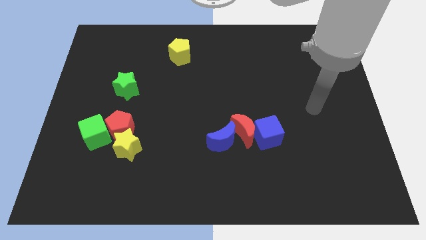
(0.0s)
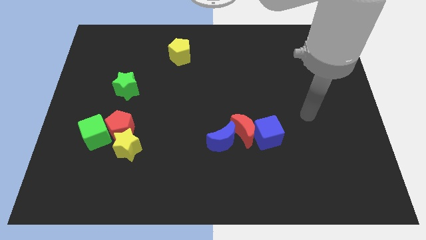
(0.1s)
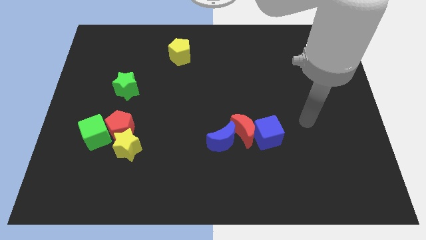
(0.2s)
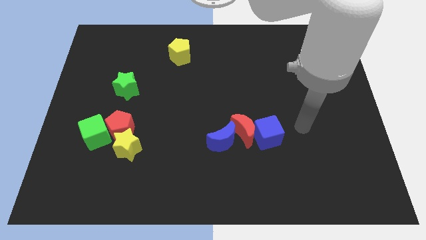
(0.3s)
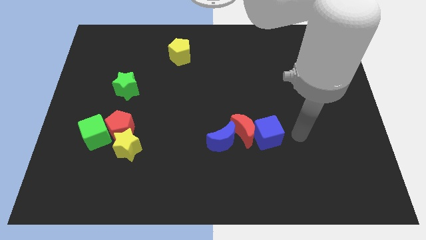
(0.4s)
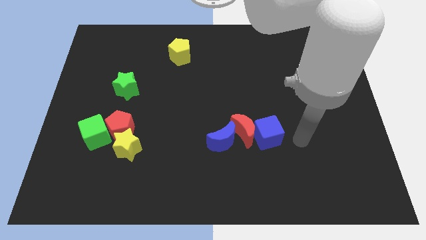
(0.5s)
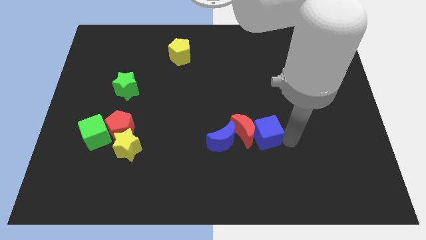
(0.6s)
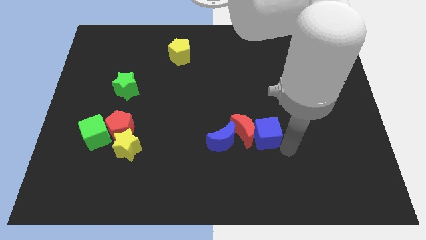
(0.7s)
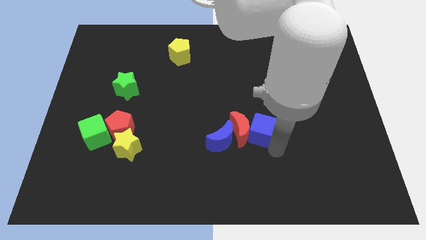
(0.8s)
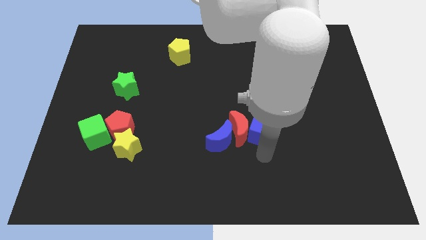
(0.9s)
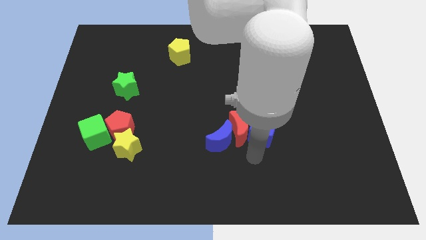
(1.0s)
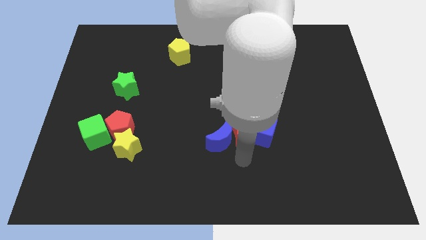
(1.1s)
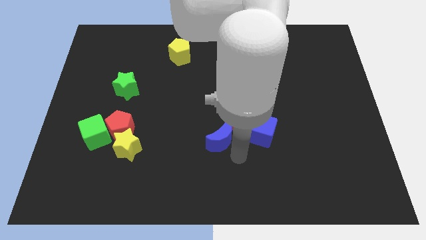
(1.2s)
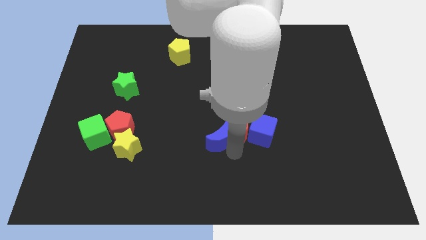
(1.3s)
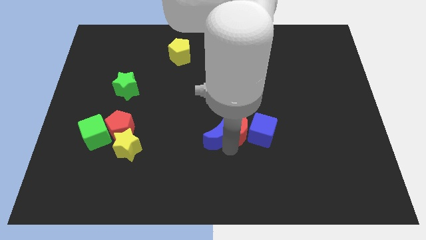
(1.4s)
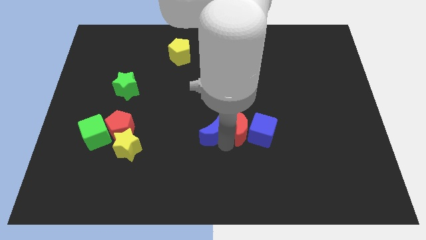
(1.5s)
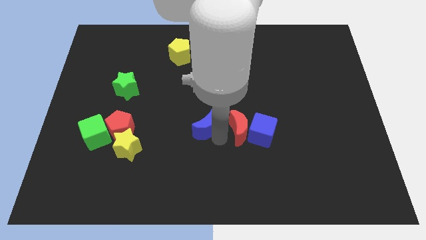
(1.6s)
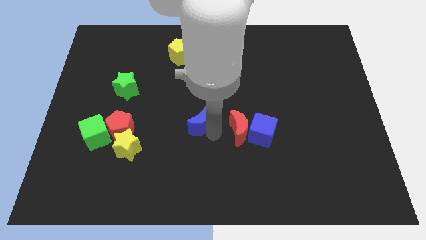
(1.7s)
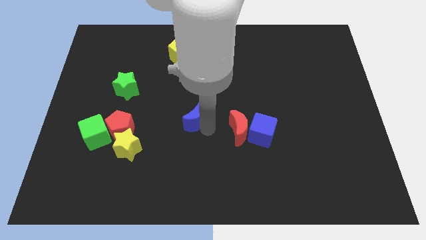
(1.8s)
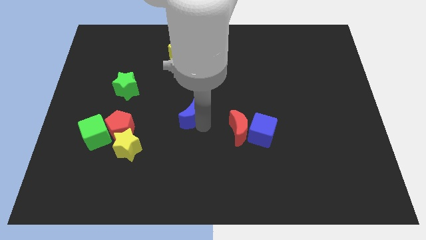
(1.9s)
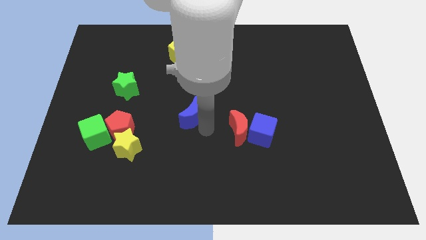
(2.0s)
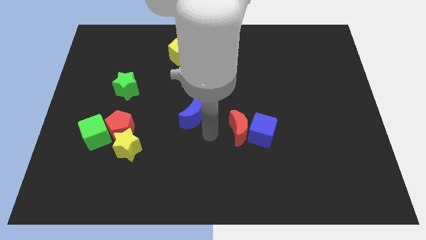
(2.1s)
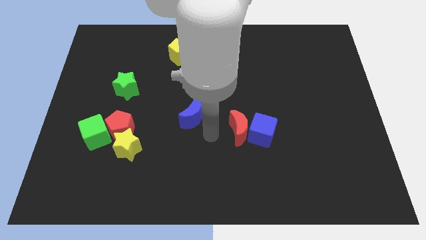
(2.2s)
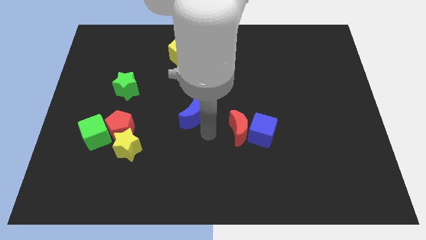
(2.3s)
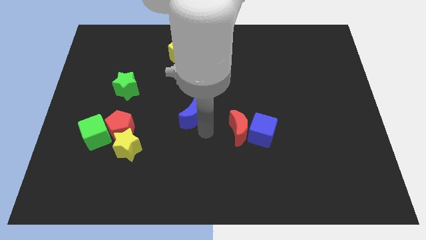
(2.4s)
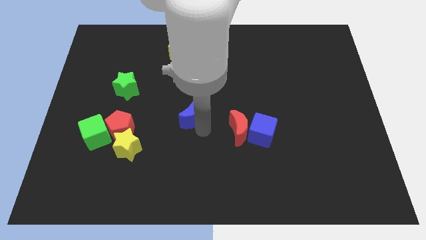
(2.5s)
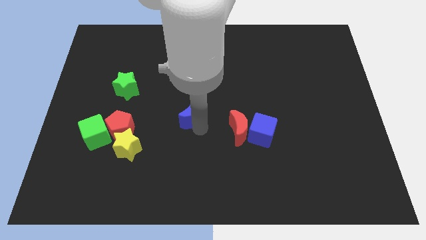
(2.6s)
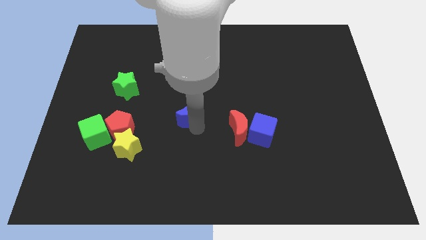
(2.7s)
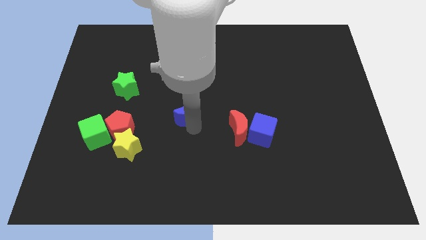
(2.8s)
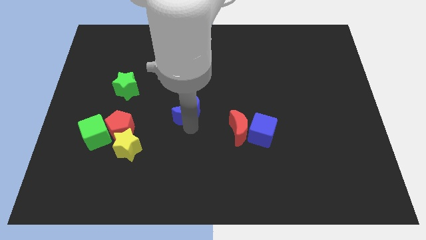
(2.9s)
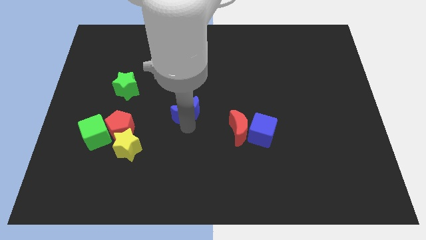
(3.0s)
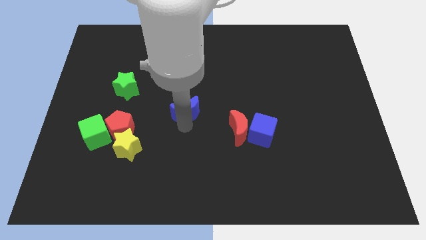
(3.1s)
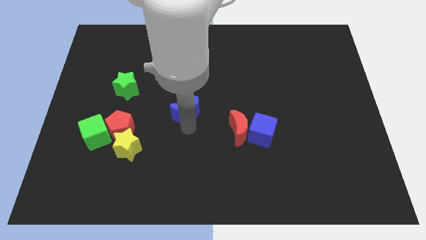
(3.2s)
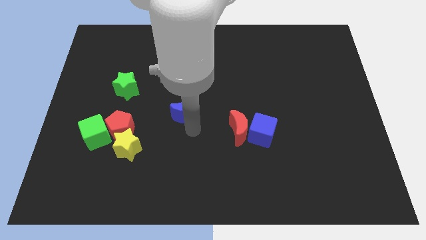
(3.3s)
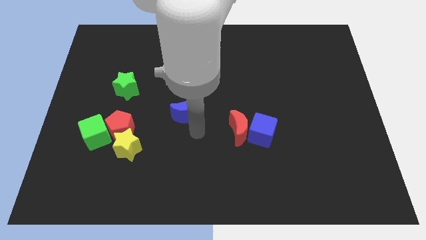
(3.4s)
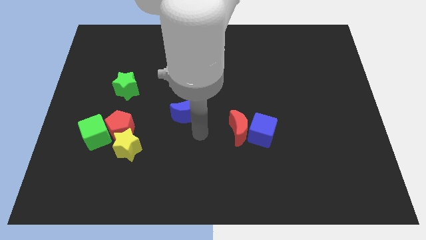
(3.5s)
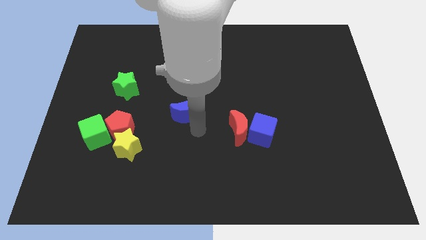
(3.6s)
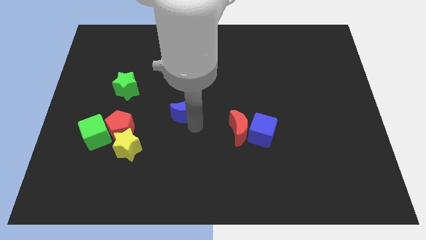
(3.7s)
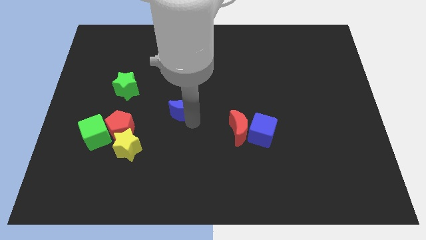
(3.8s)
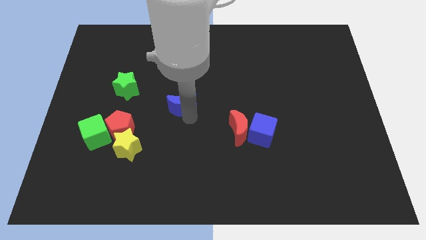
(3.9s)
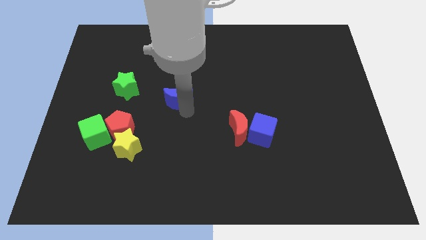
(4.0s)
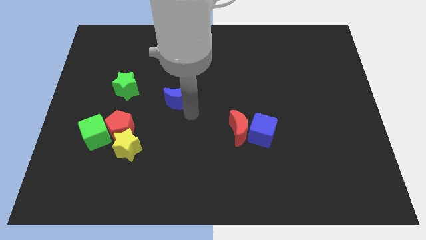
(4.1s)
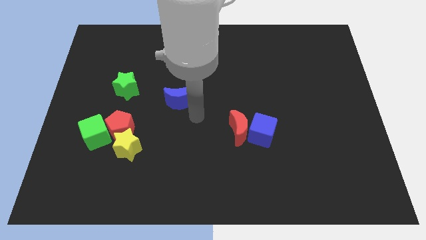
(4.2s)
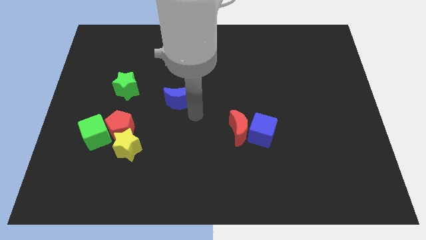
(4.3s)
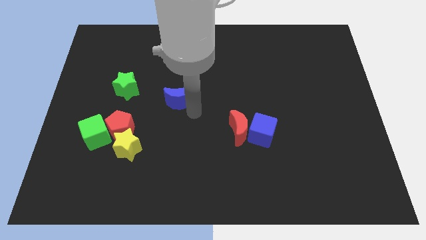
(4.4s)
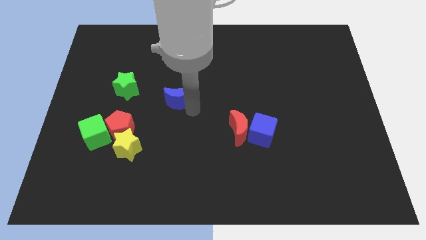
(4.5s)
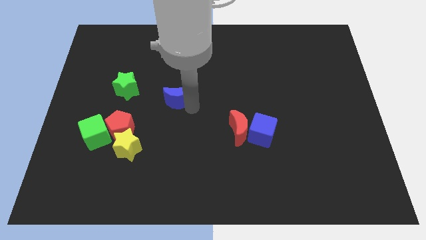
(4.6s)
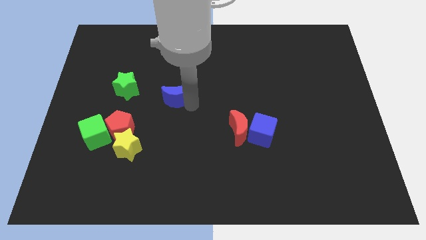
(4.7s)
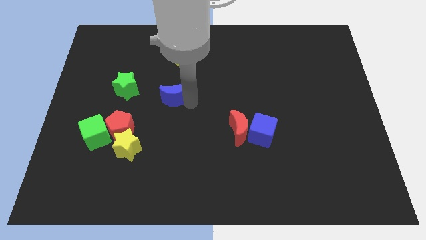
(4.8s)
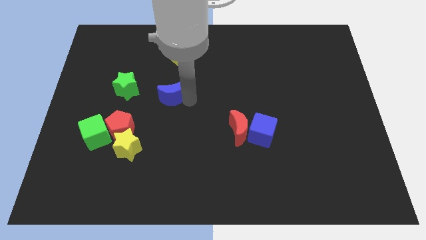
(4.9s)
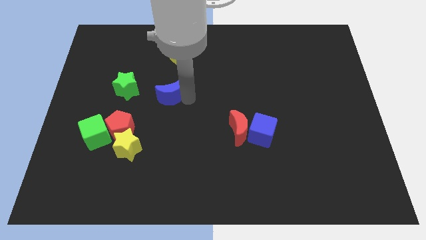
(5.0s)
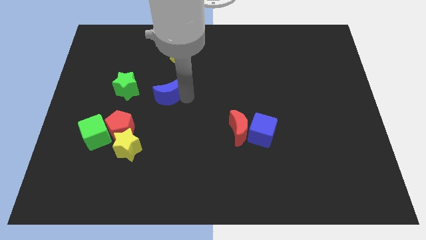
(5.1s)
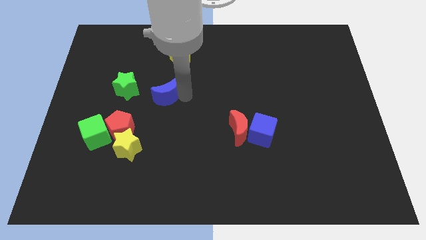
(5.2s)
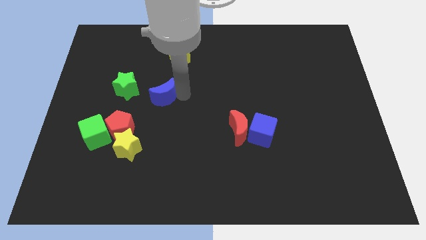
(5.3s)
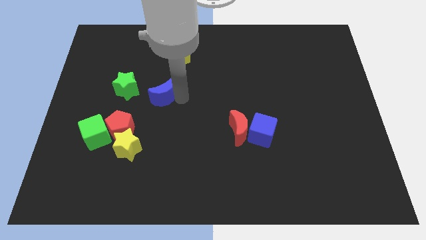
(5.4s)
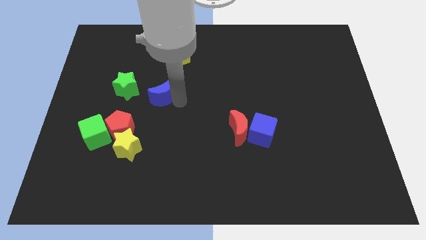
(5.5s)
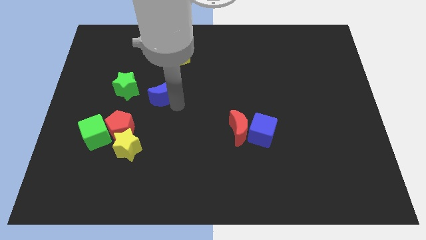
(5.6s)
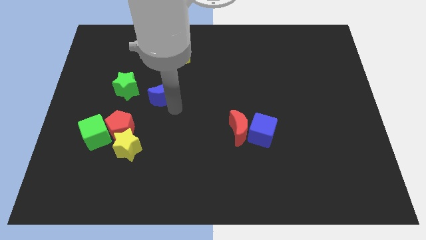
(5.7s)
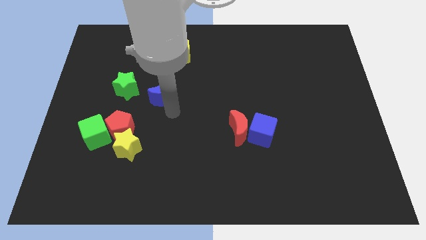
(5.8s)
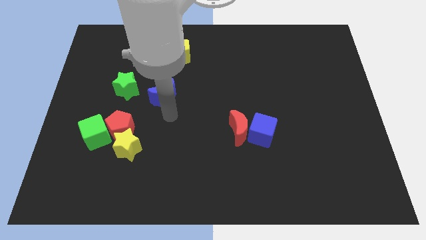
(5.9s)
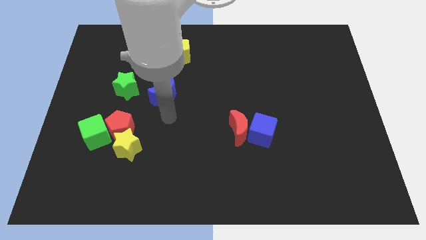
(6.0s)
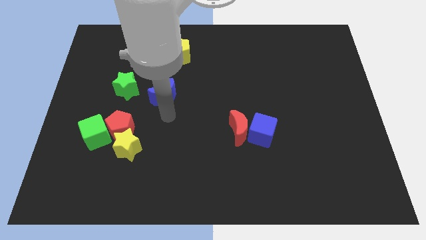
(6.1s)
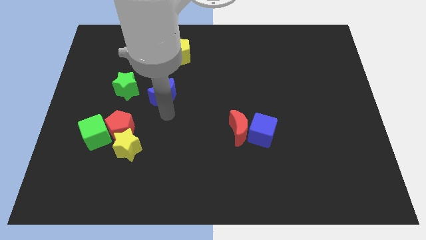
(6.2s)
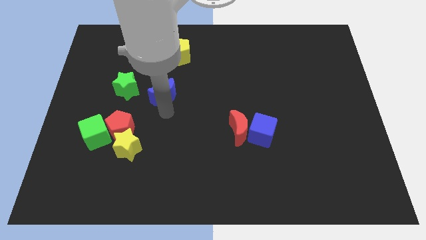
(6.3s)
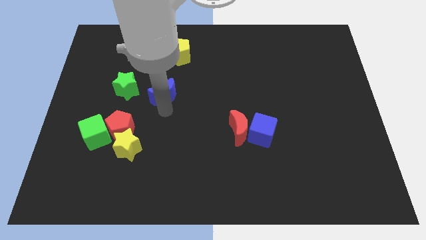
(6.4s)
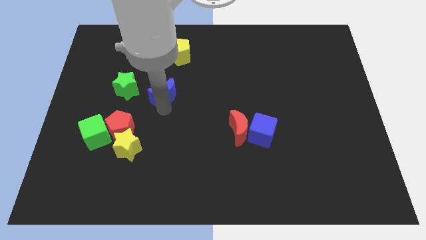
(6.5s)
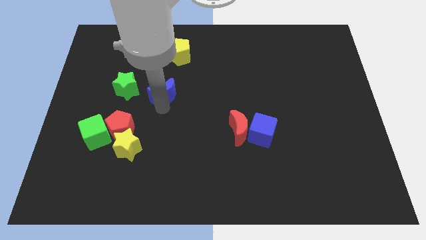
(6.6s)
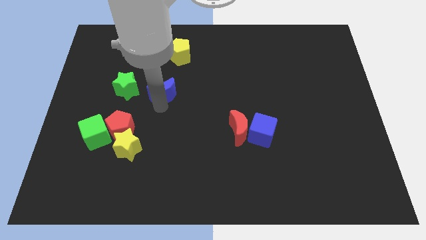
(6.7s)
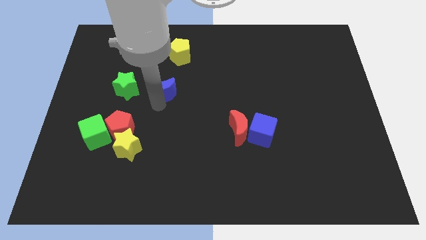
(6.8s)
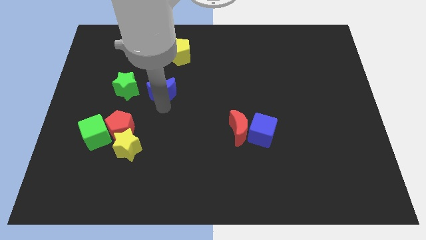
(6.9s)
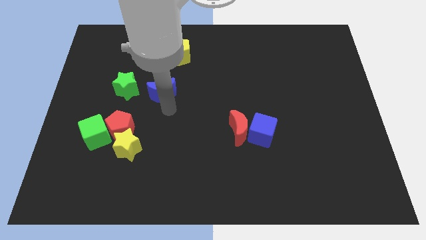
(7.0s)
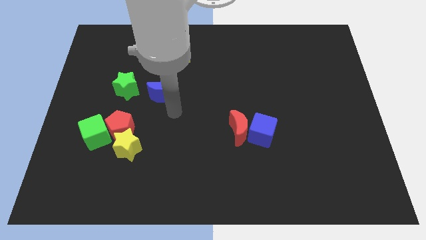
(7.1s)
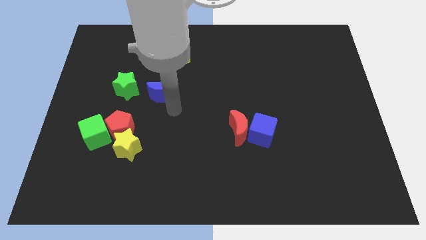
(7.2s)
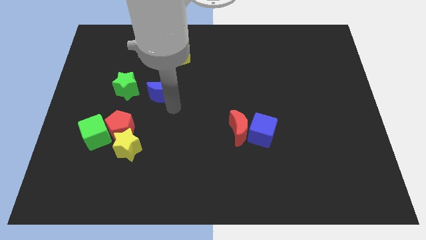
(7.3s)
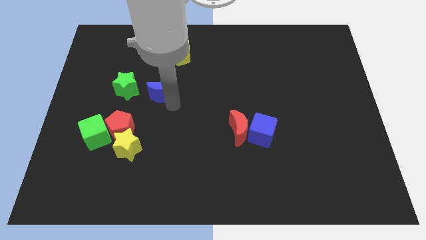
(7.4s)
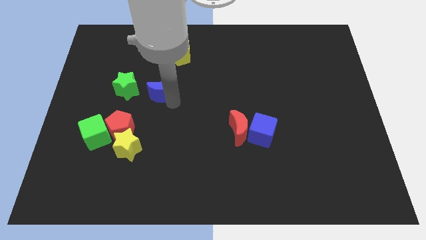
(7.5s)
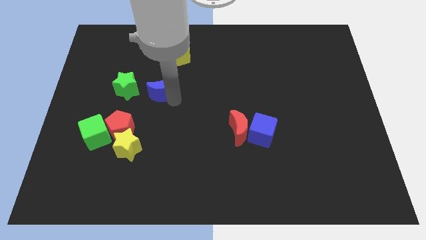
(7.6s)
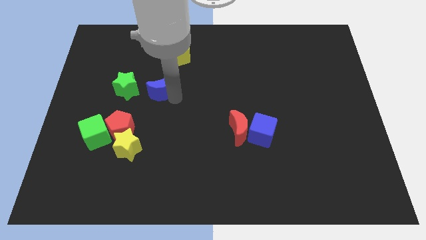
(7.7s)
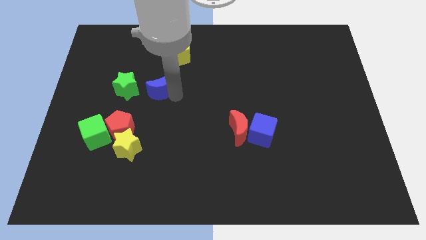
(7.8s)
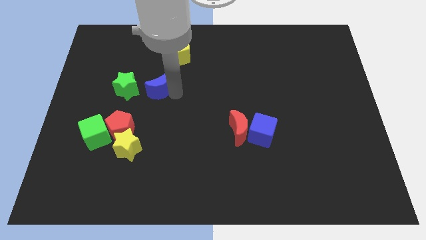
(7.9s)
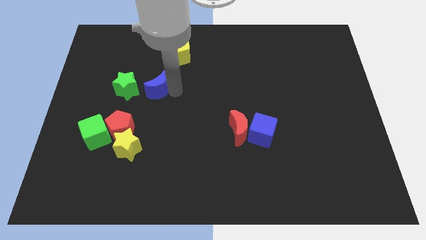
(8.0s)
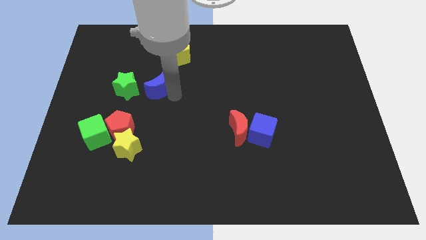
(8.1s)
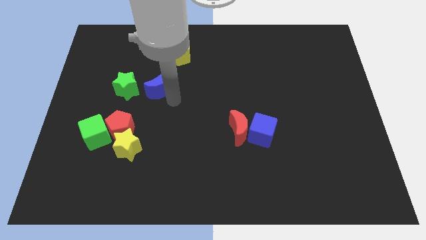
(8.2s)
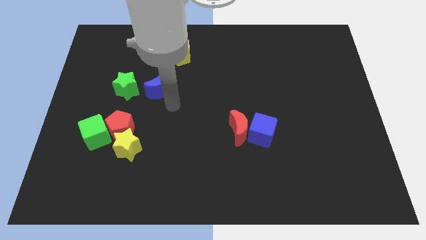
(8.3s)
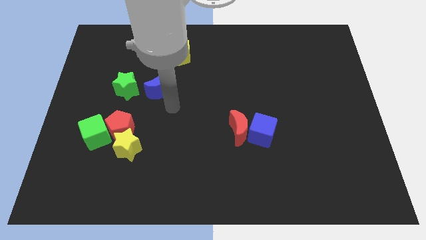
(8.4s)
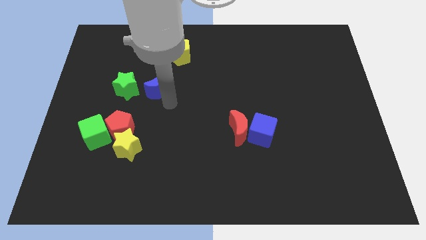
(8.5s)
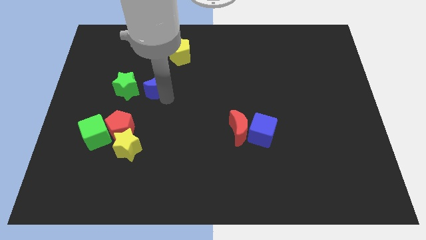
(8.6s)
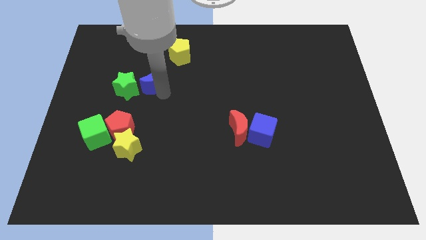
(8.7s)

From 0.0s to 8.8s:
move the blue moon diagonally up and to the right of the green star
